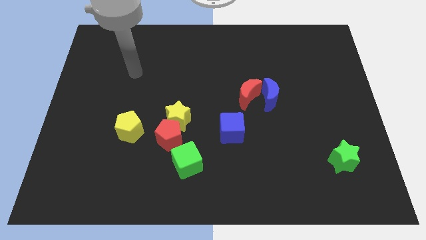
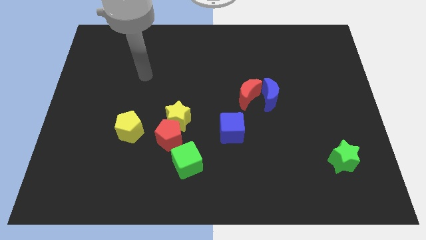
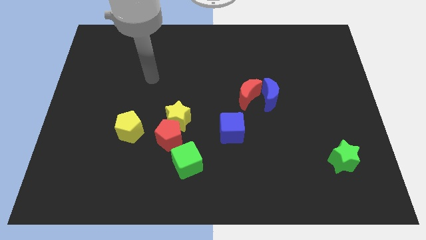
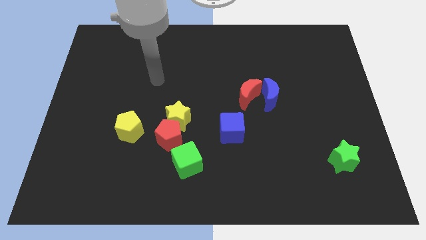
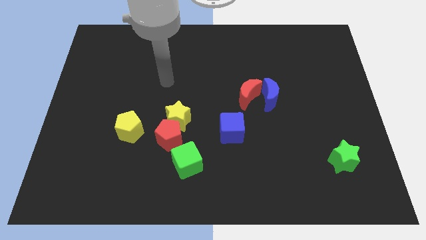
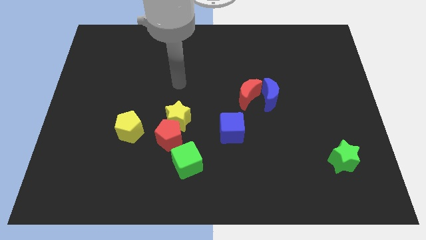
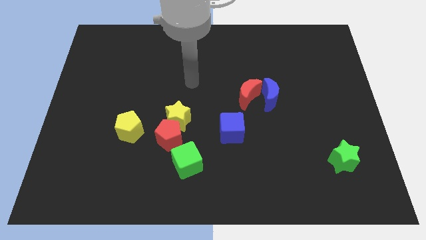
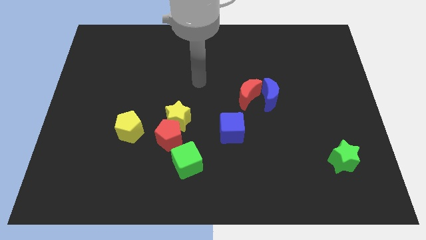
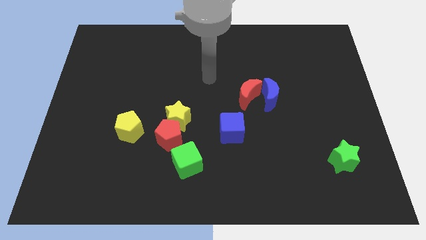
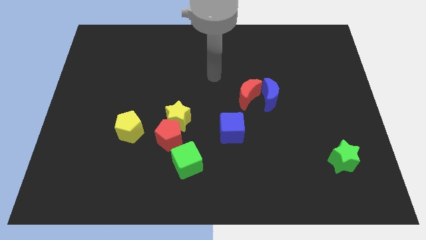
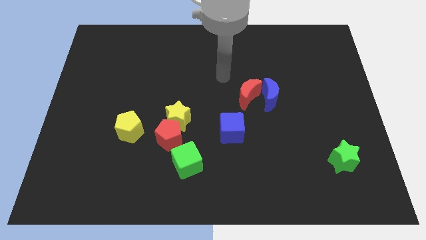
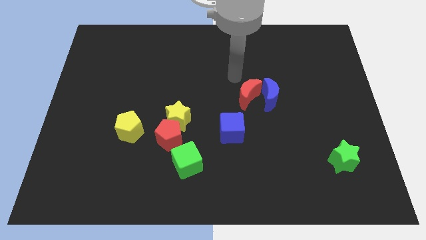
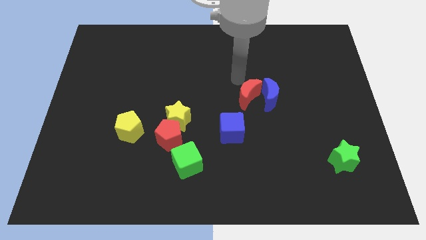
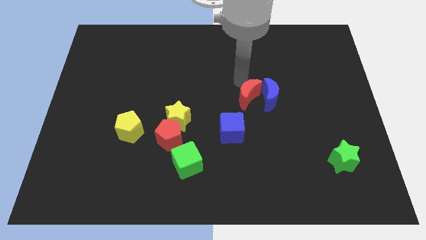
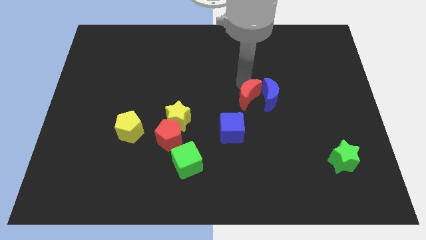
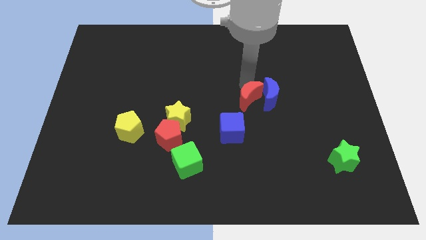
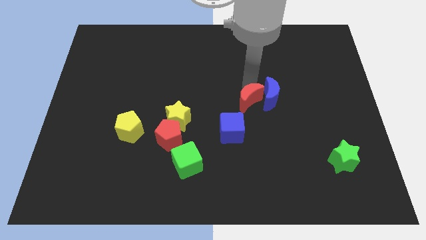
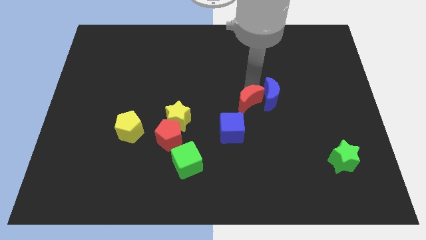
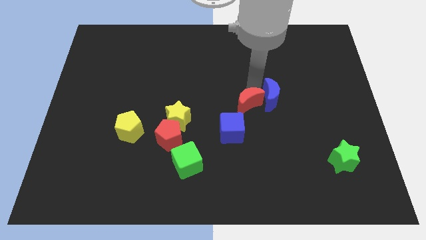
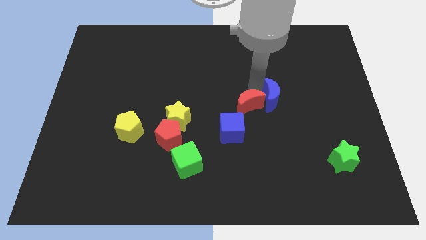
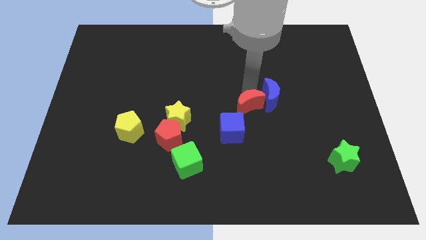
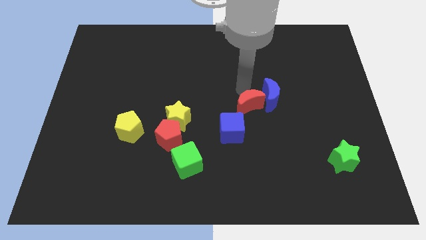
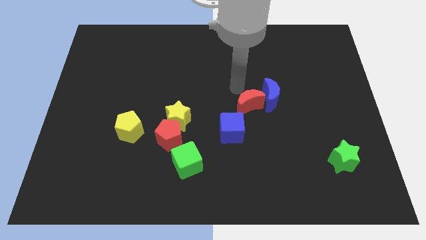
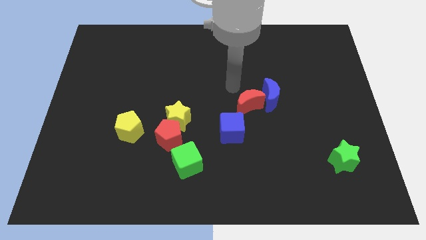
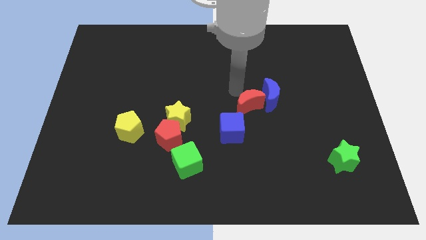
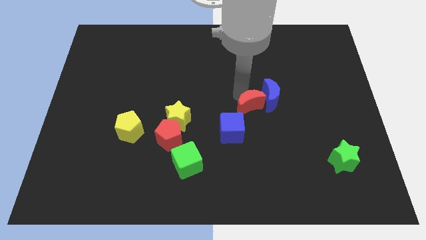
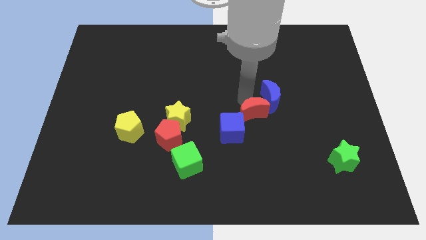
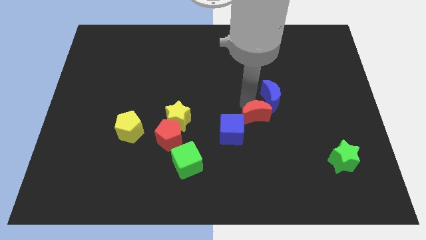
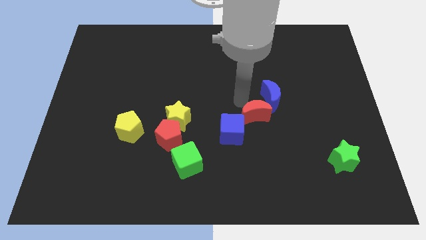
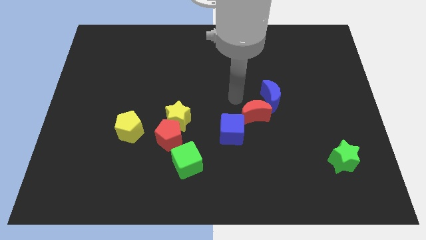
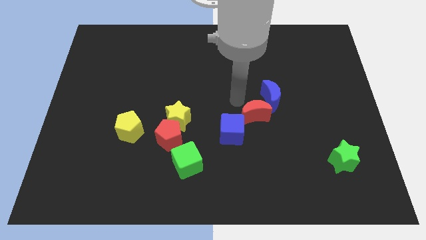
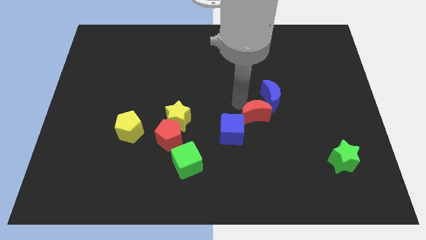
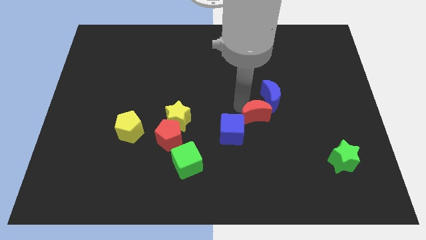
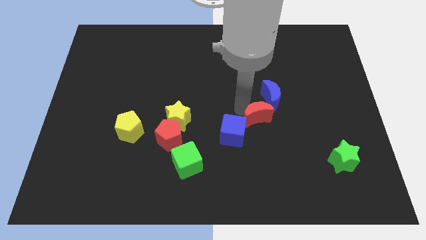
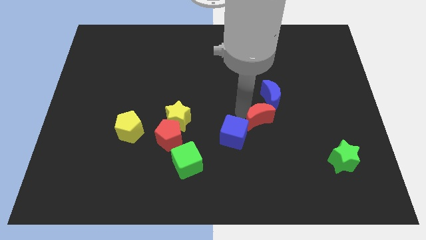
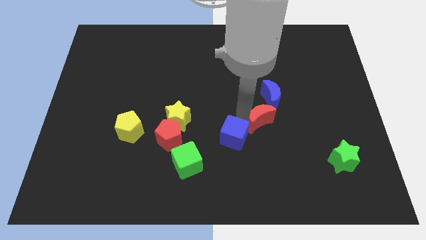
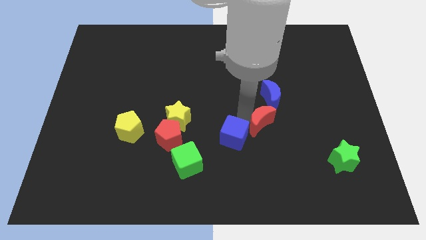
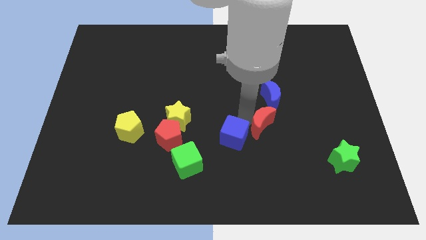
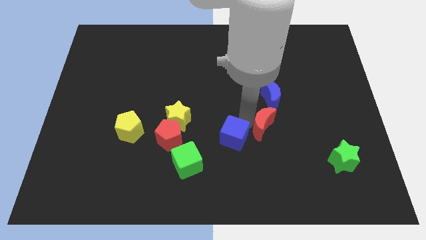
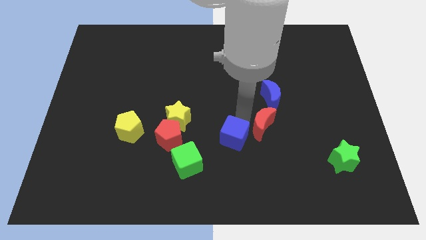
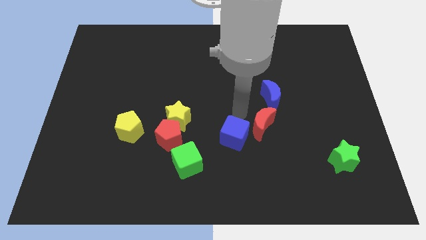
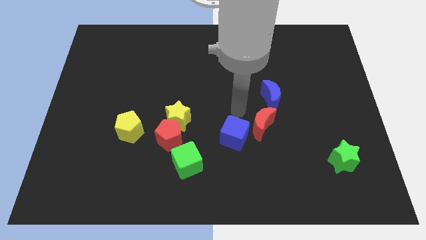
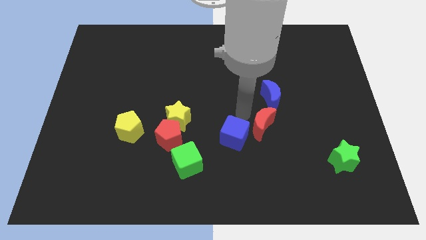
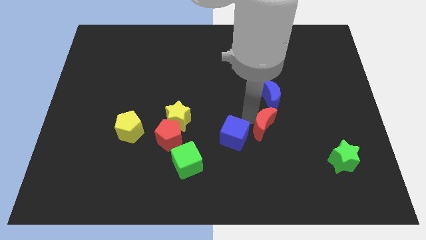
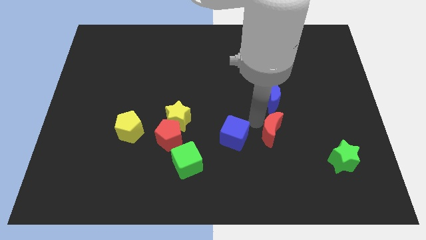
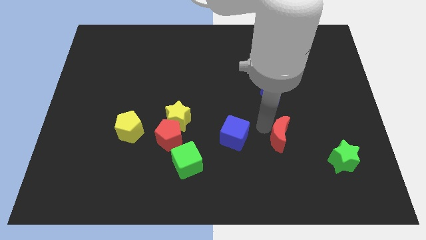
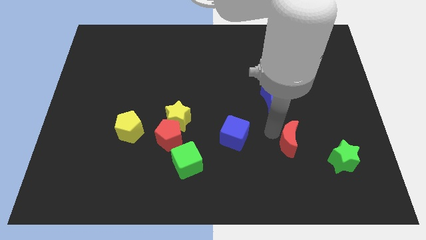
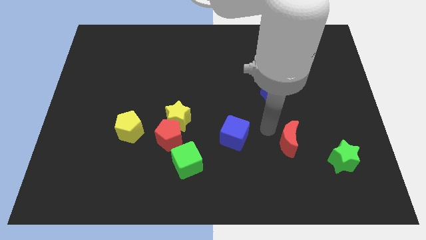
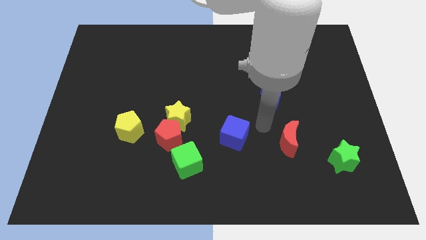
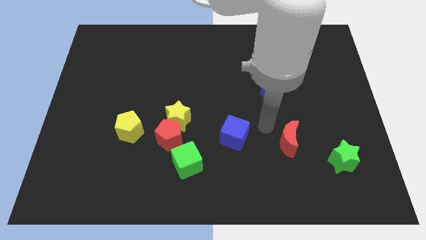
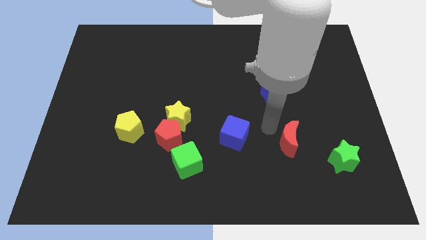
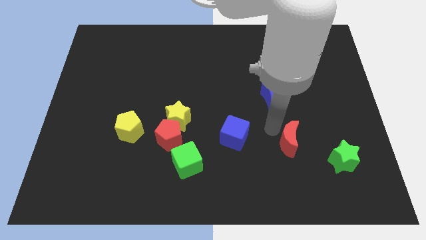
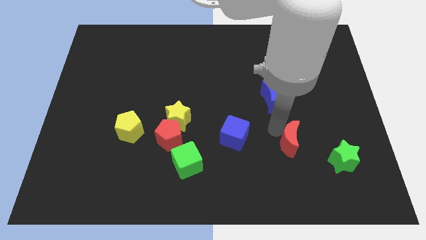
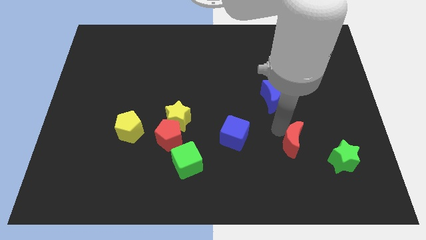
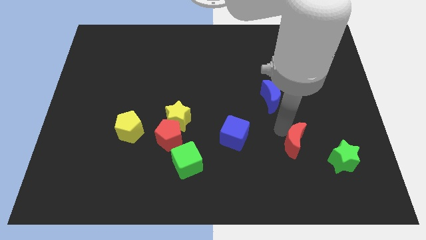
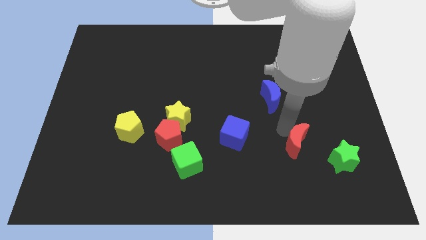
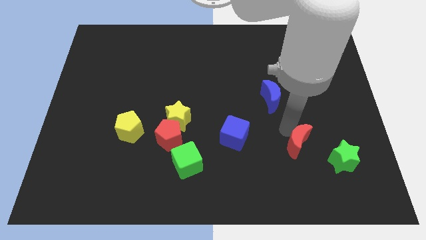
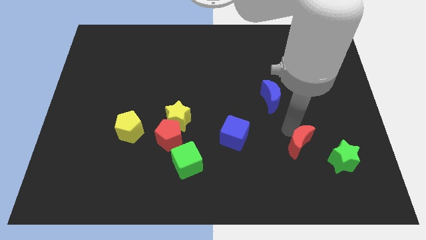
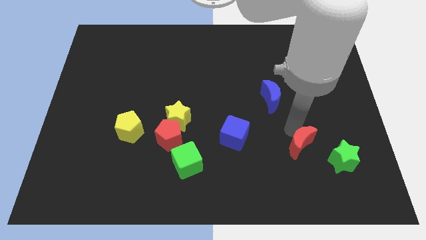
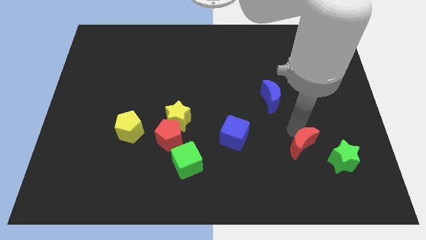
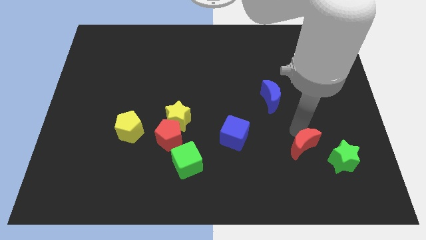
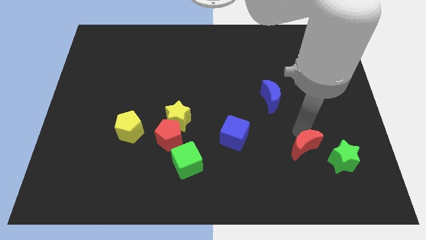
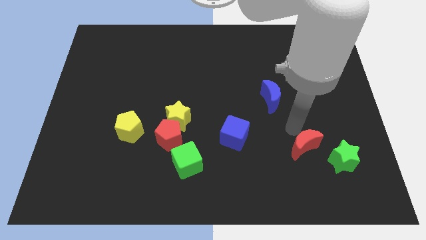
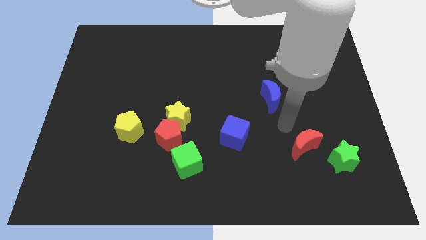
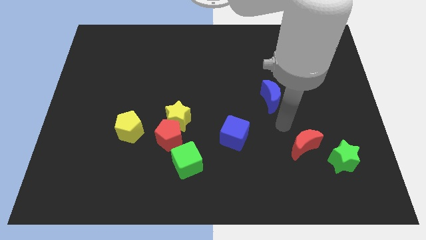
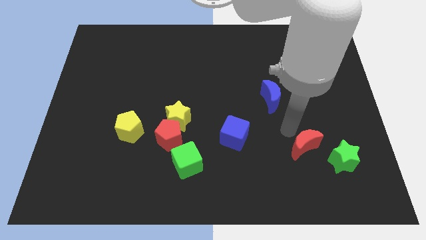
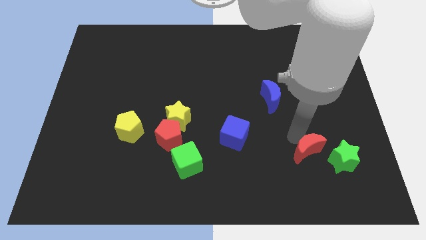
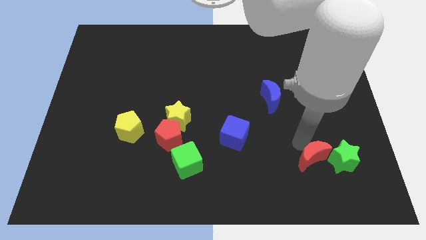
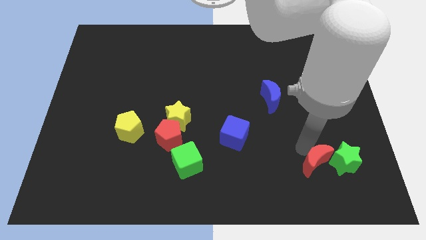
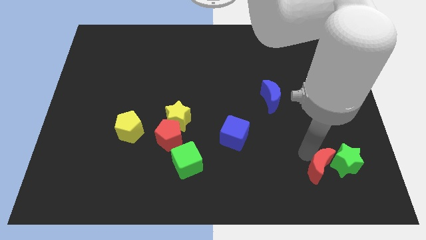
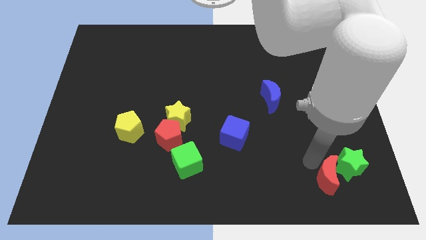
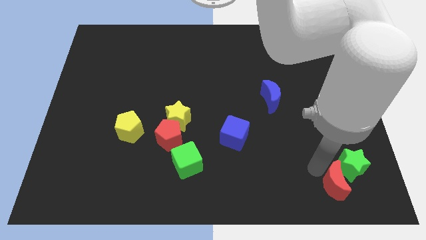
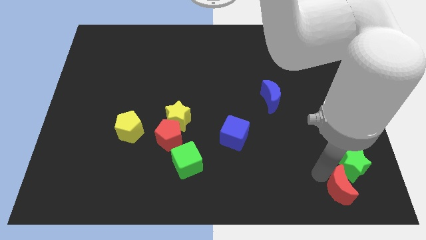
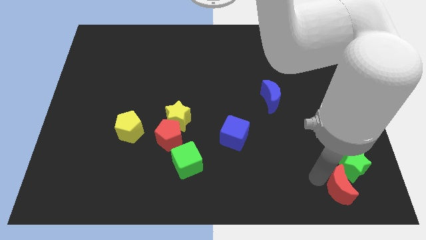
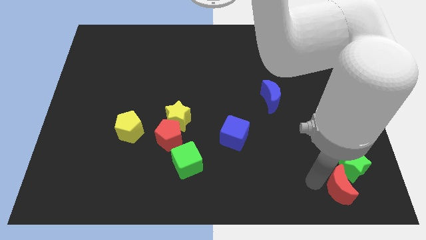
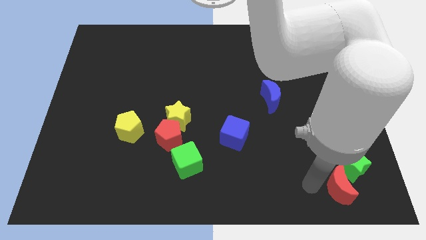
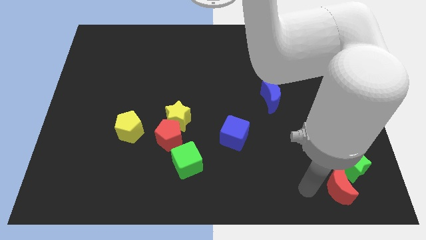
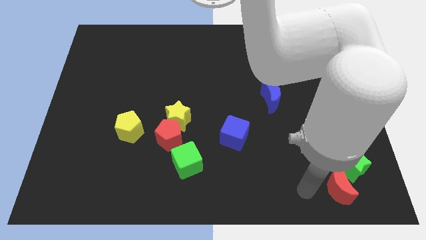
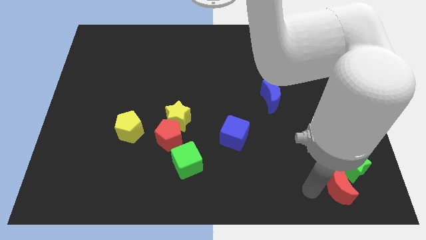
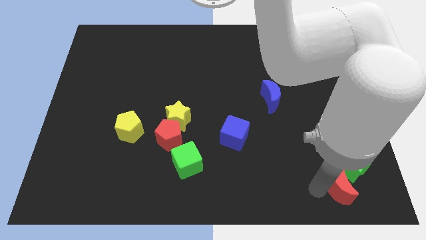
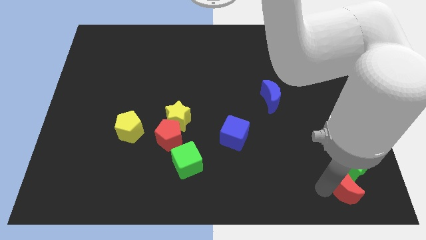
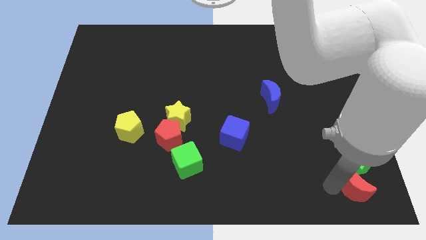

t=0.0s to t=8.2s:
put the red moon to the lower right corner
